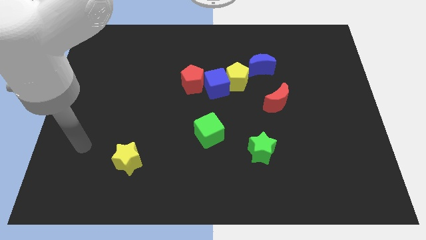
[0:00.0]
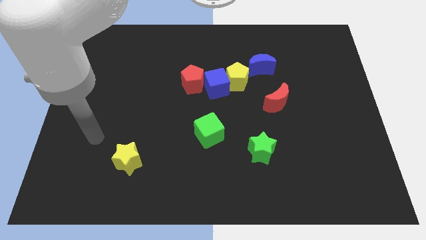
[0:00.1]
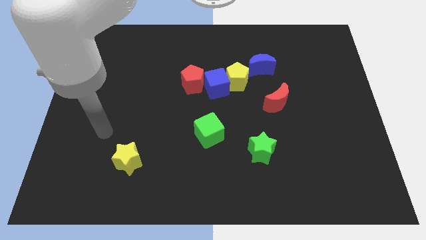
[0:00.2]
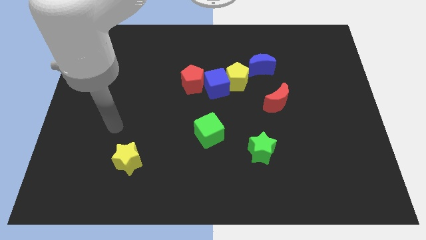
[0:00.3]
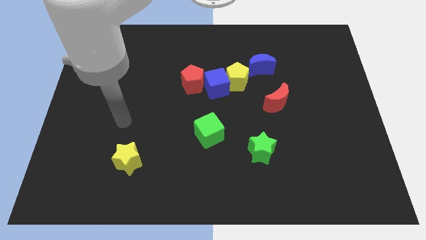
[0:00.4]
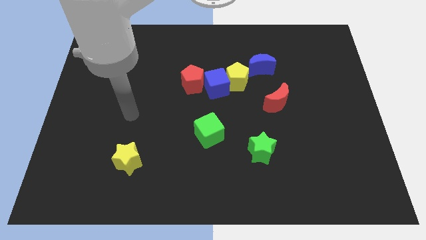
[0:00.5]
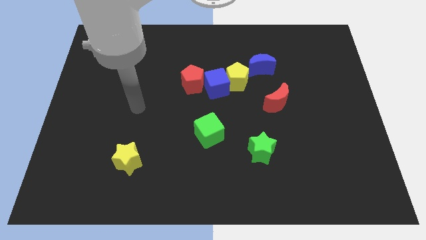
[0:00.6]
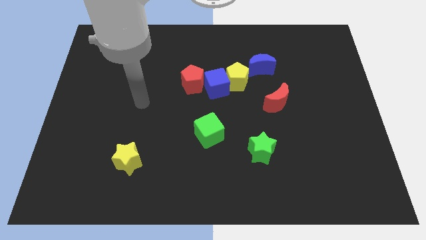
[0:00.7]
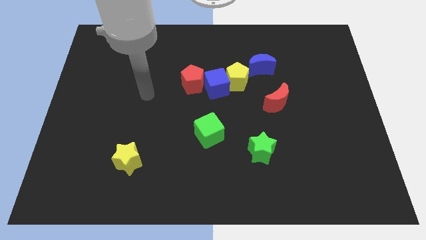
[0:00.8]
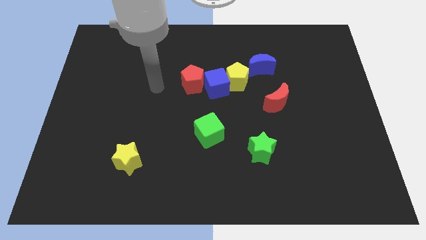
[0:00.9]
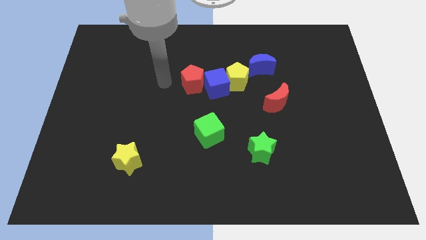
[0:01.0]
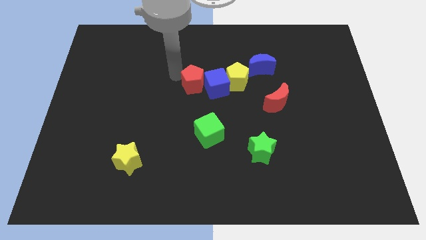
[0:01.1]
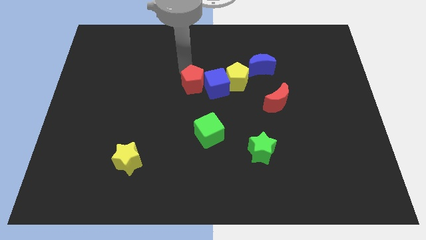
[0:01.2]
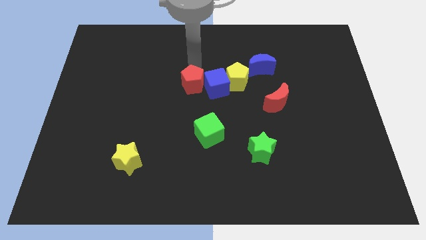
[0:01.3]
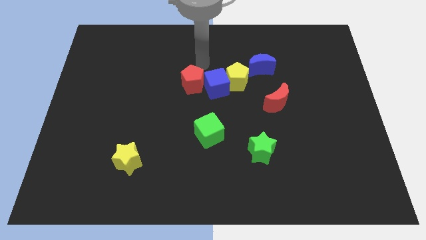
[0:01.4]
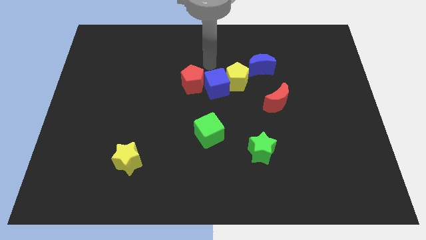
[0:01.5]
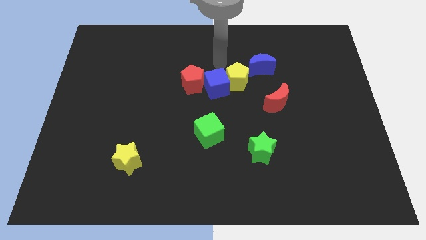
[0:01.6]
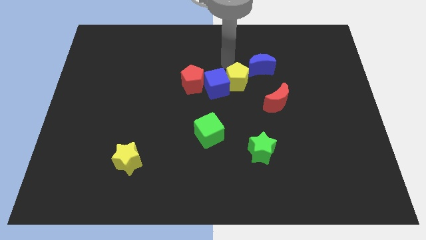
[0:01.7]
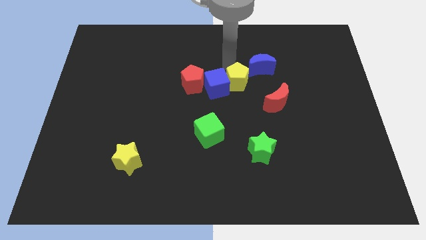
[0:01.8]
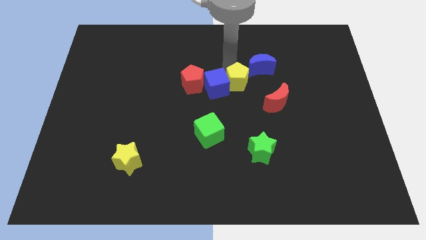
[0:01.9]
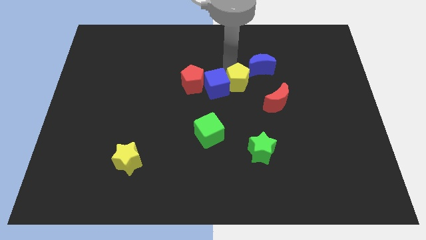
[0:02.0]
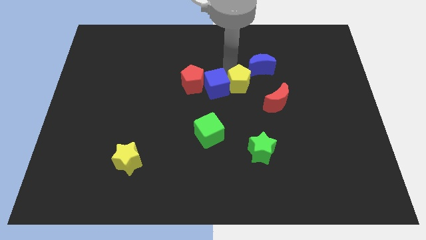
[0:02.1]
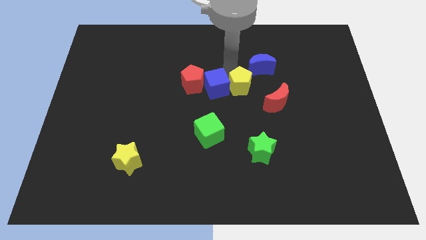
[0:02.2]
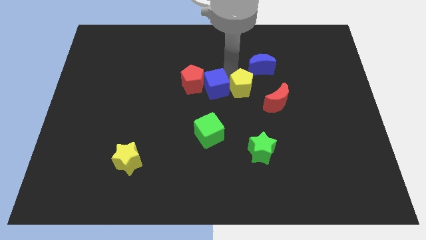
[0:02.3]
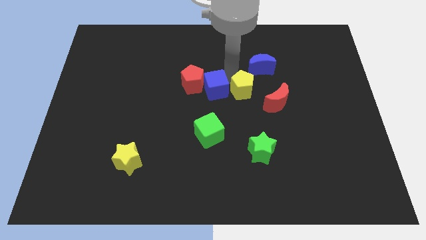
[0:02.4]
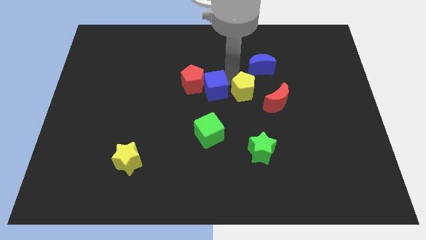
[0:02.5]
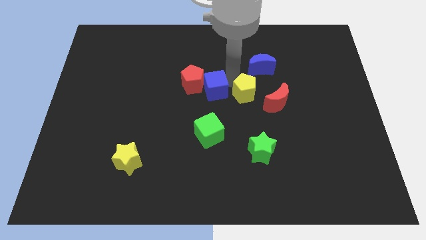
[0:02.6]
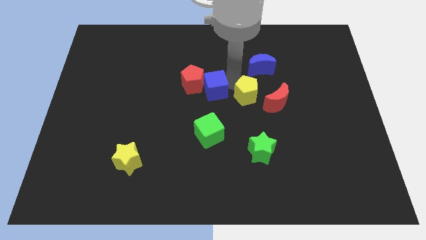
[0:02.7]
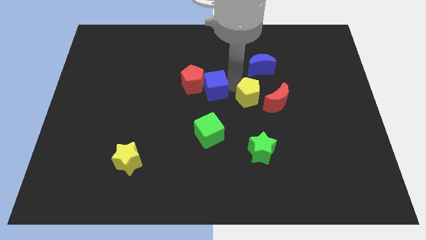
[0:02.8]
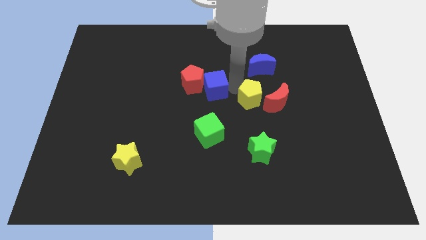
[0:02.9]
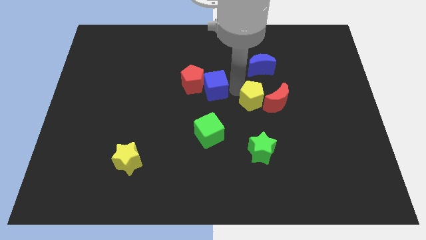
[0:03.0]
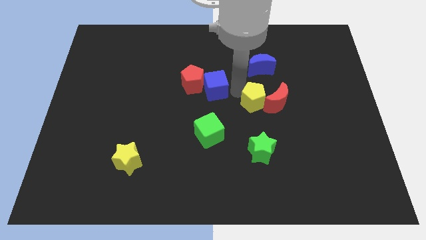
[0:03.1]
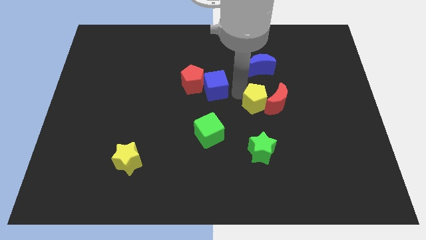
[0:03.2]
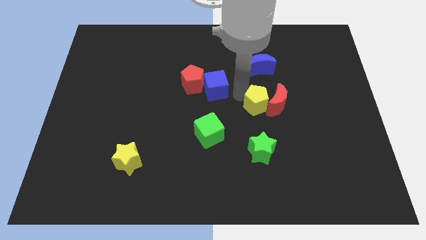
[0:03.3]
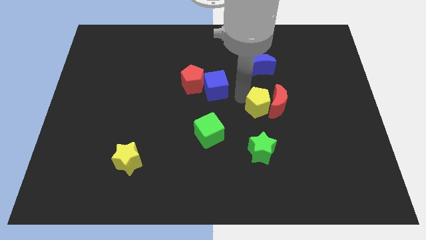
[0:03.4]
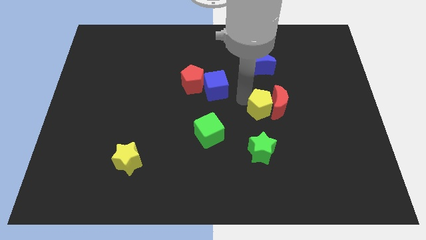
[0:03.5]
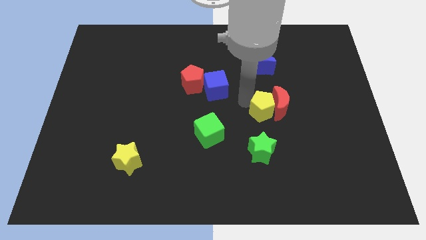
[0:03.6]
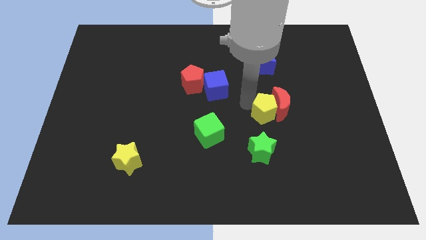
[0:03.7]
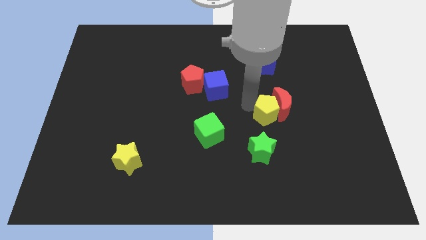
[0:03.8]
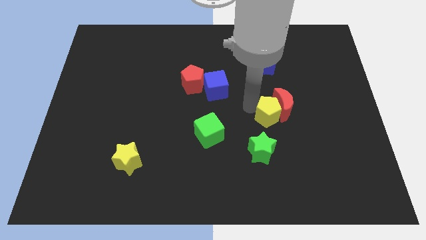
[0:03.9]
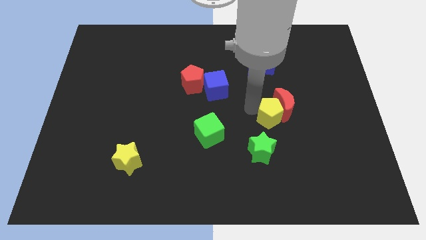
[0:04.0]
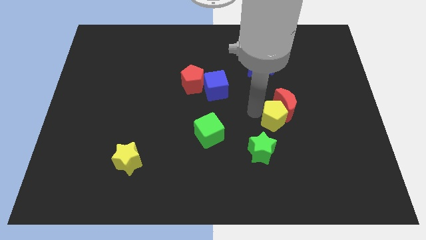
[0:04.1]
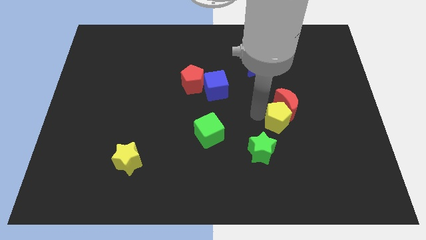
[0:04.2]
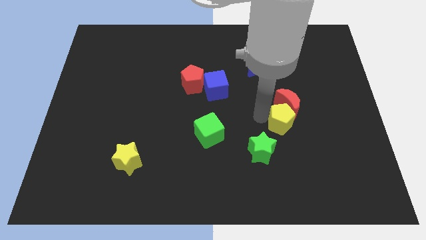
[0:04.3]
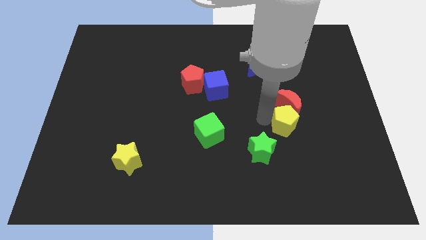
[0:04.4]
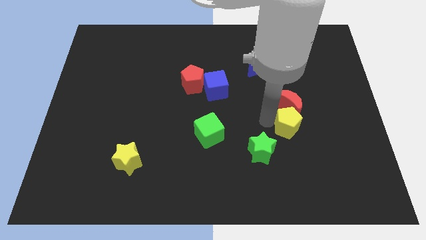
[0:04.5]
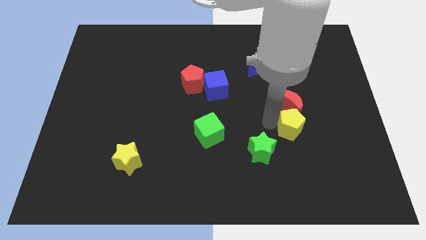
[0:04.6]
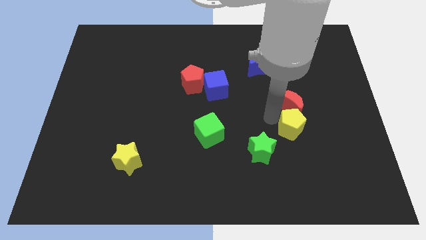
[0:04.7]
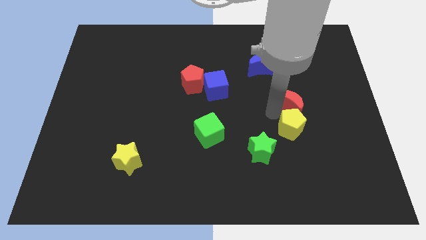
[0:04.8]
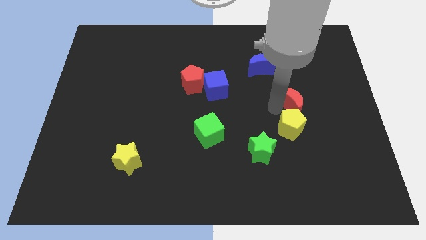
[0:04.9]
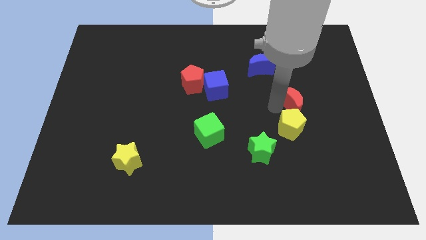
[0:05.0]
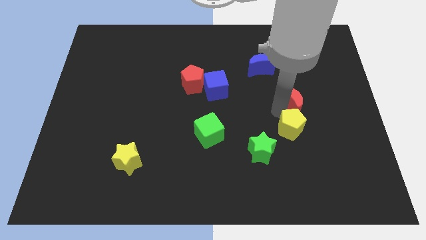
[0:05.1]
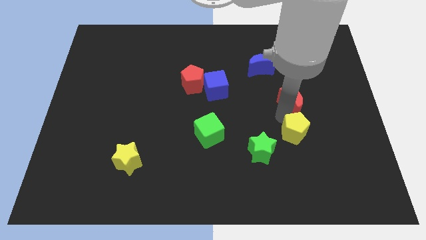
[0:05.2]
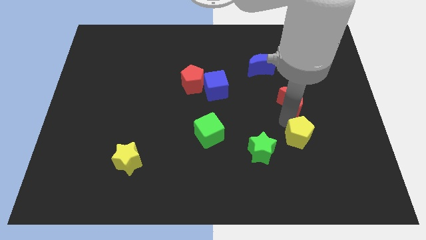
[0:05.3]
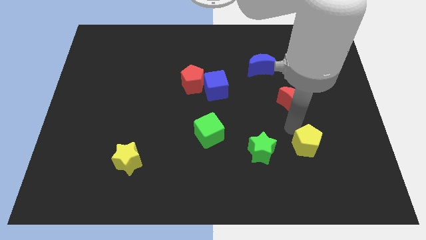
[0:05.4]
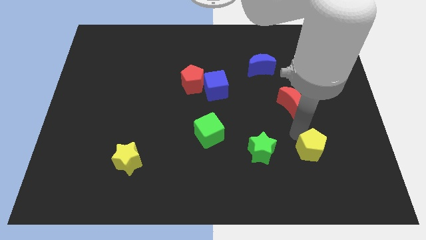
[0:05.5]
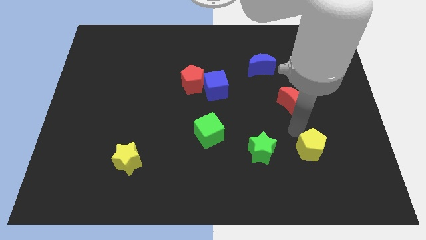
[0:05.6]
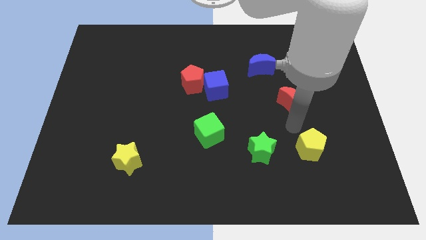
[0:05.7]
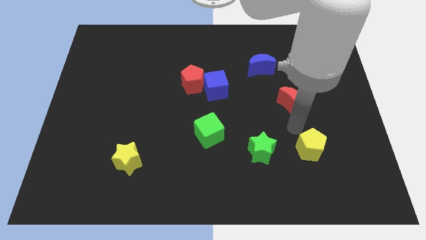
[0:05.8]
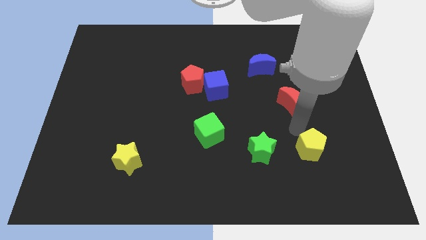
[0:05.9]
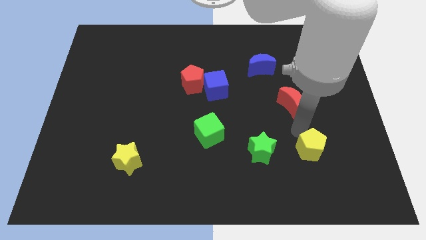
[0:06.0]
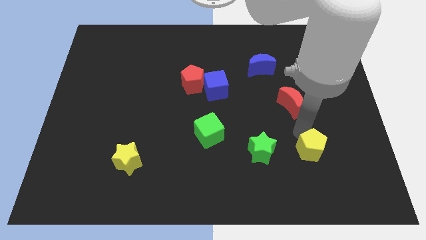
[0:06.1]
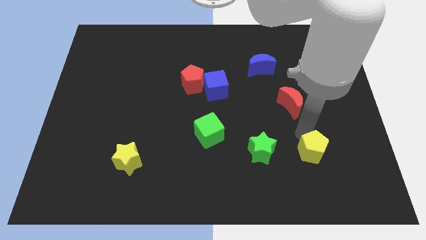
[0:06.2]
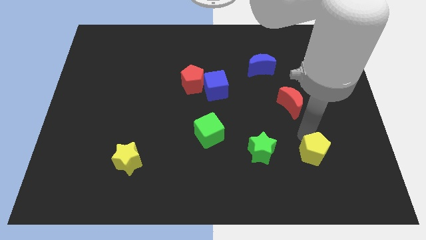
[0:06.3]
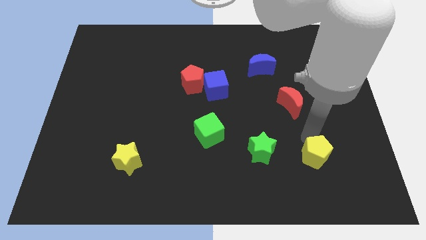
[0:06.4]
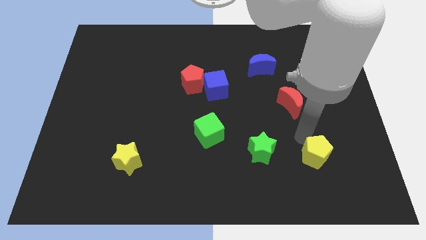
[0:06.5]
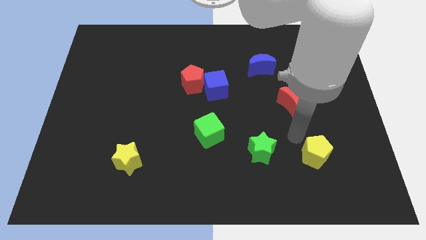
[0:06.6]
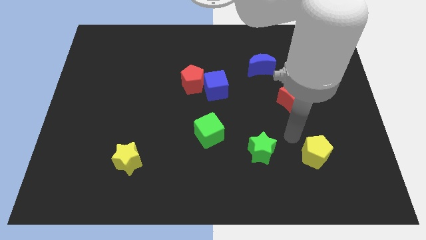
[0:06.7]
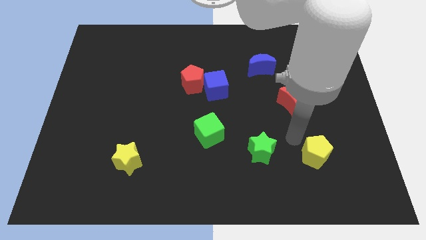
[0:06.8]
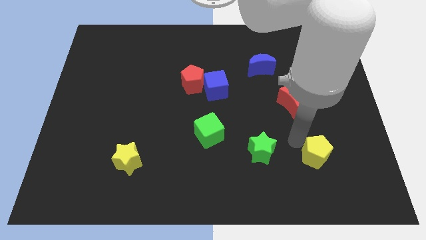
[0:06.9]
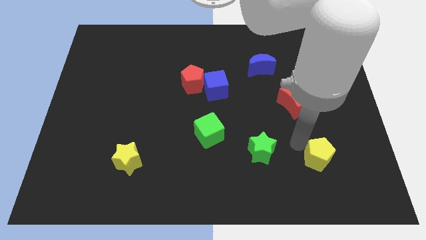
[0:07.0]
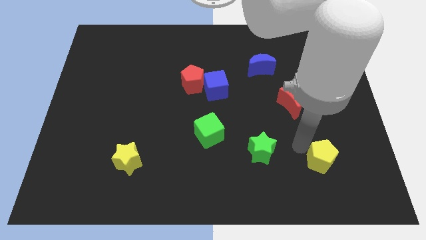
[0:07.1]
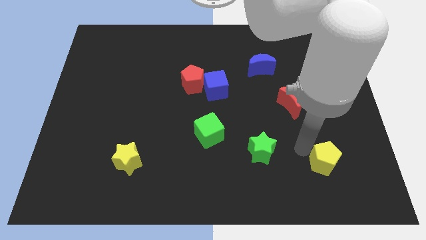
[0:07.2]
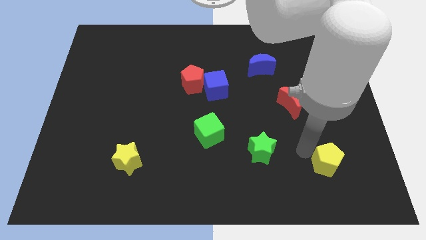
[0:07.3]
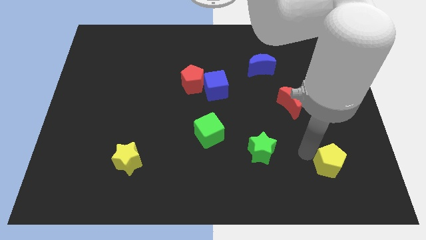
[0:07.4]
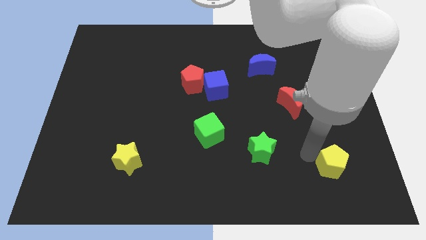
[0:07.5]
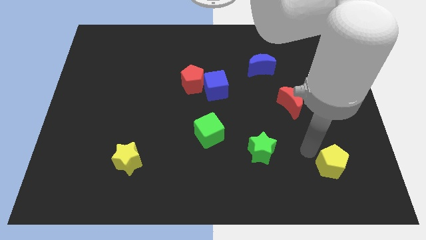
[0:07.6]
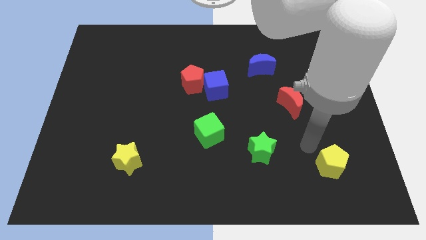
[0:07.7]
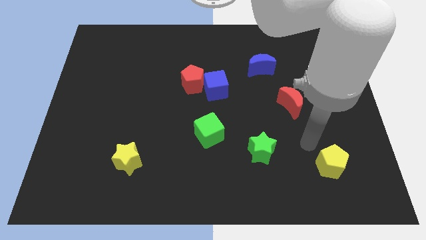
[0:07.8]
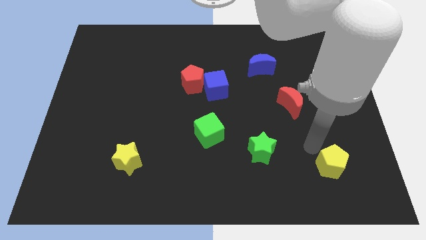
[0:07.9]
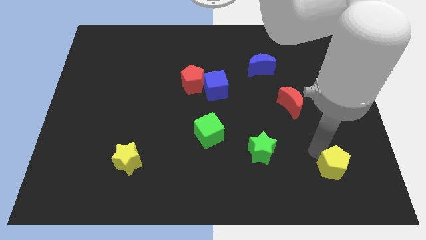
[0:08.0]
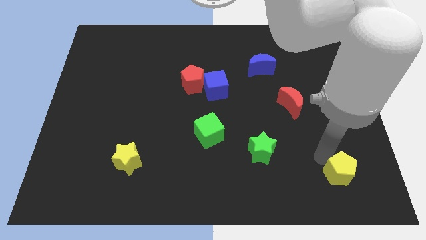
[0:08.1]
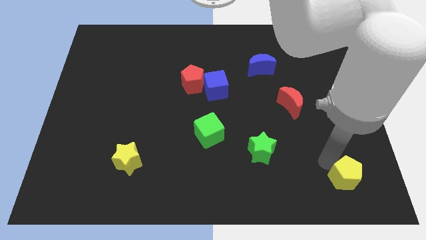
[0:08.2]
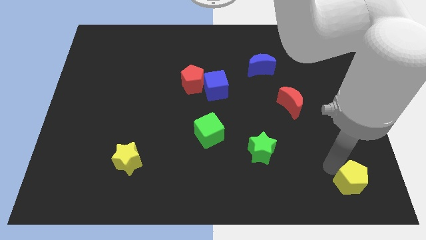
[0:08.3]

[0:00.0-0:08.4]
slide the yellow pentagon to the bottom right
